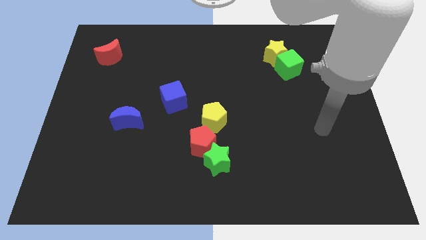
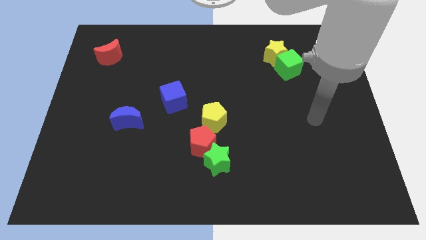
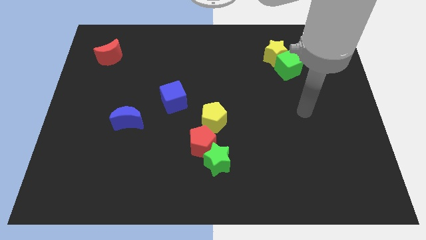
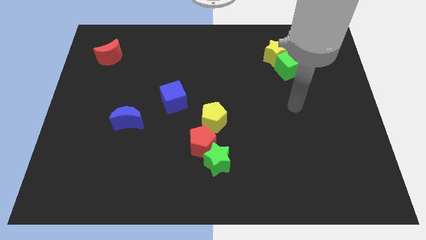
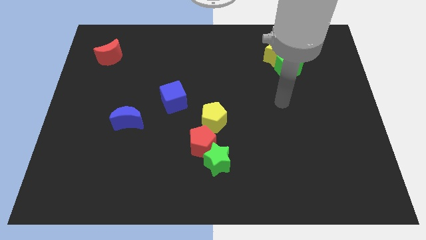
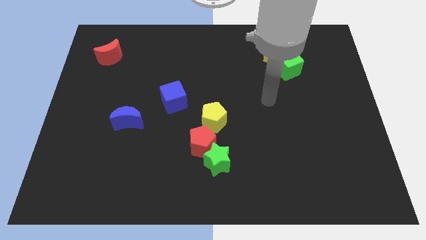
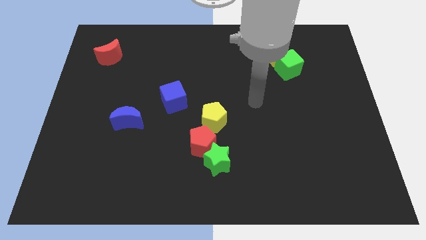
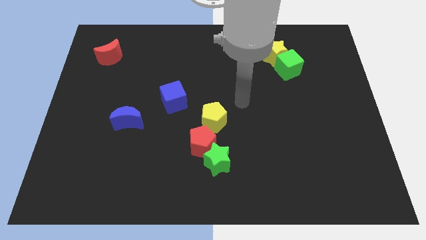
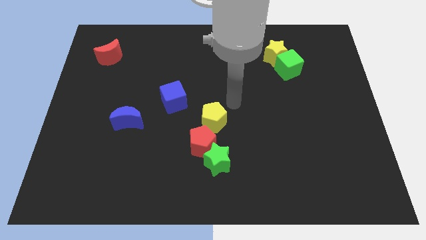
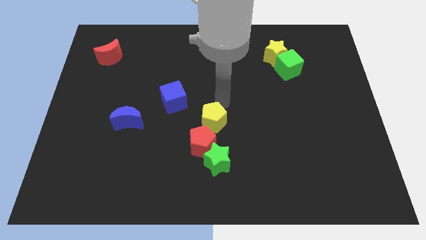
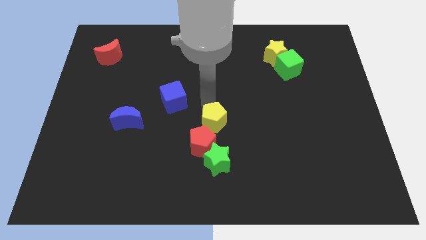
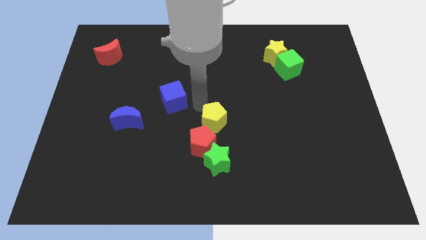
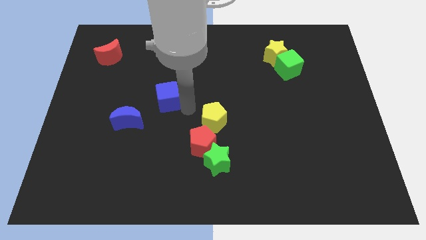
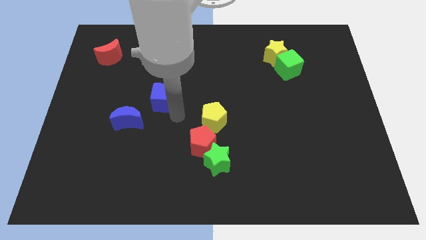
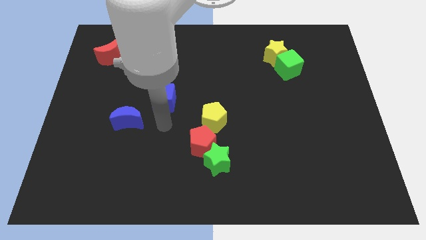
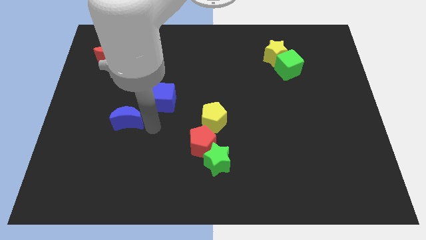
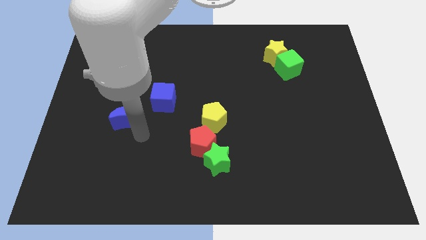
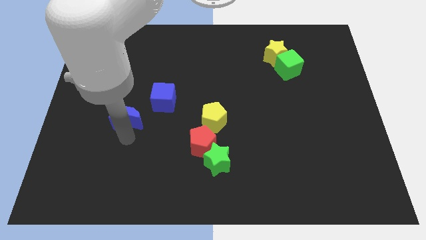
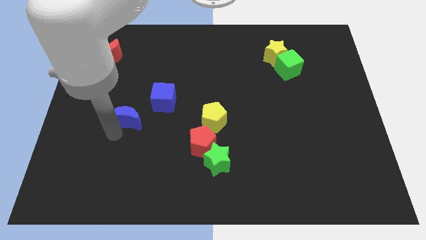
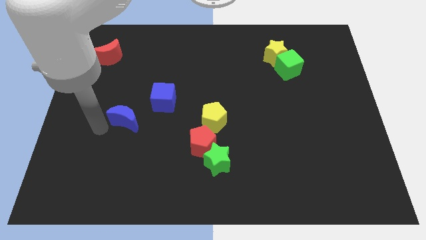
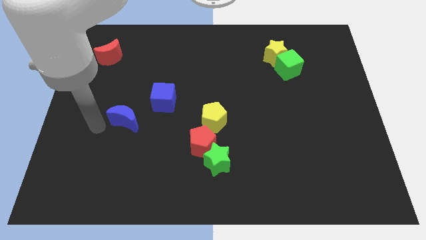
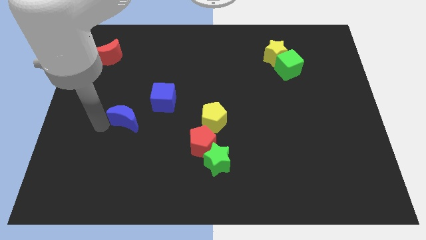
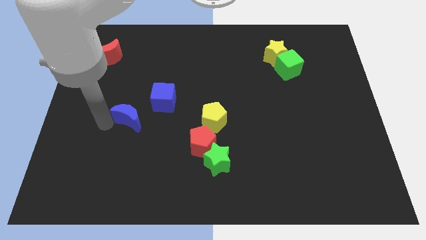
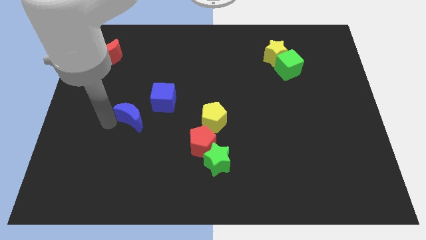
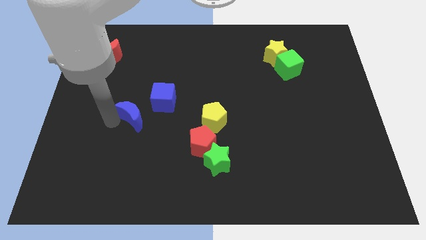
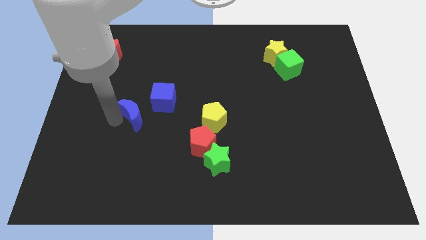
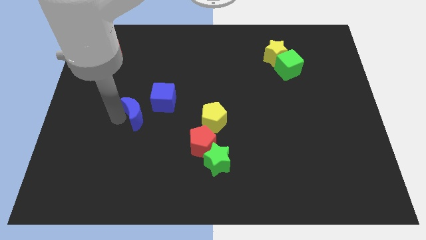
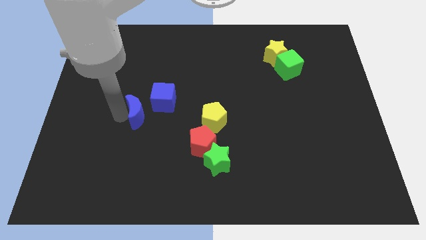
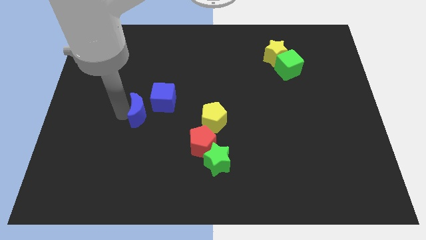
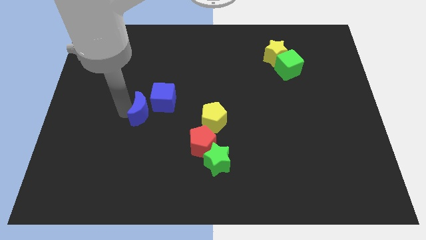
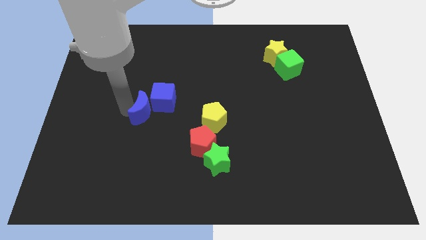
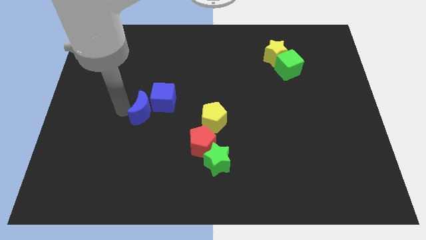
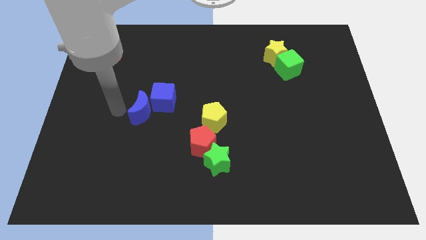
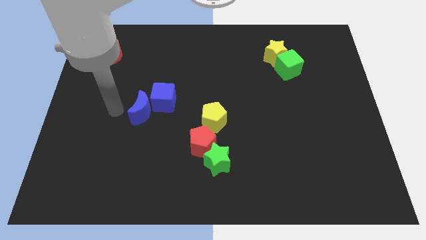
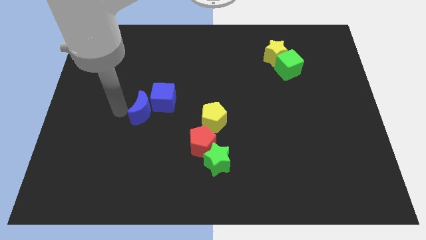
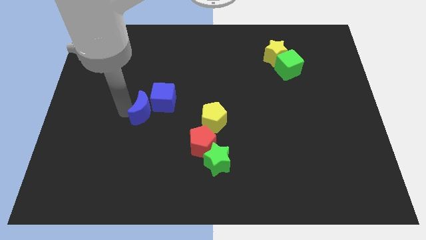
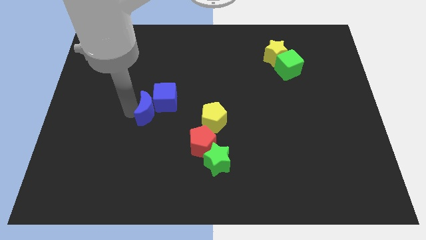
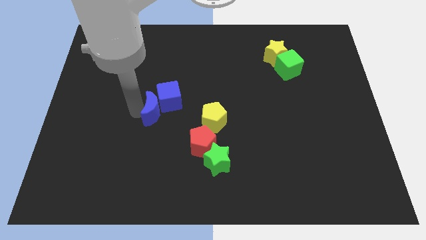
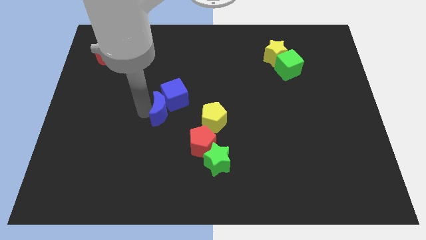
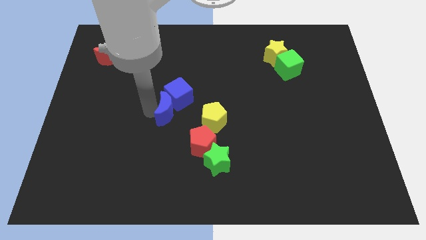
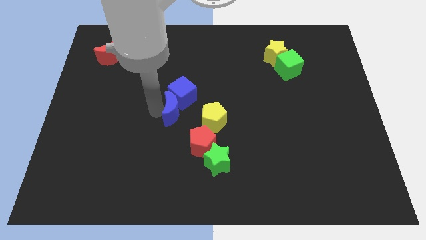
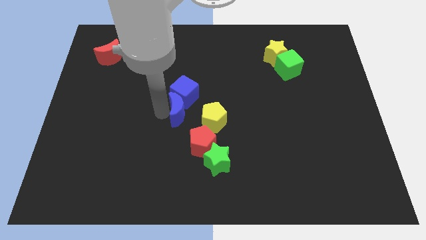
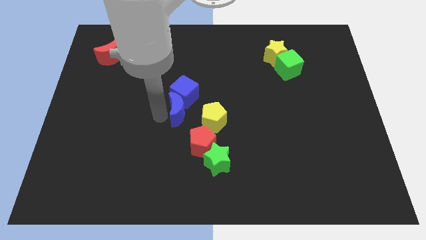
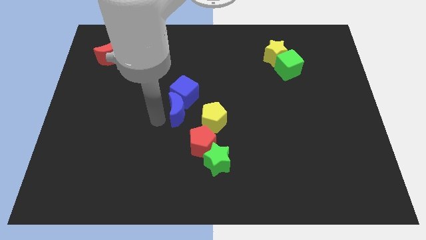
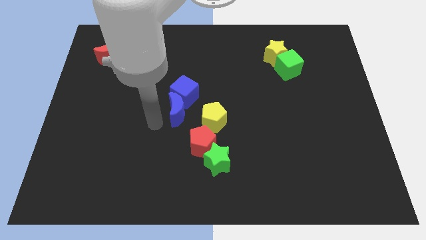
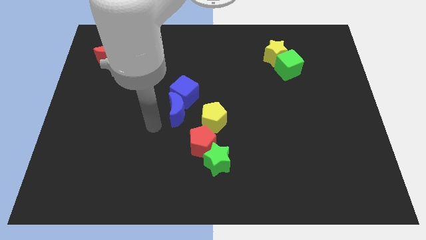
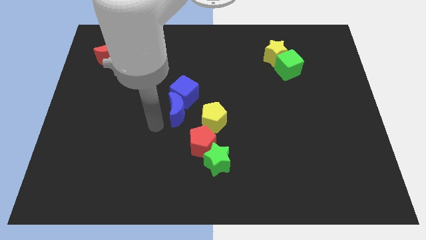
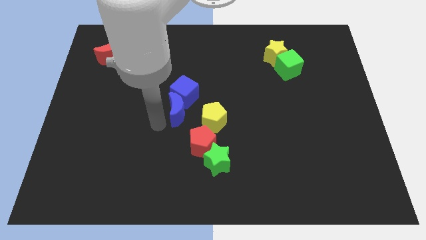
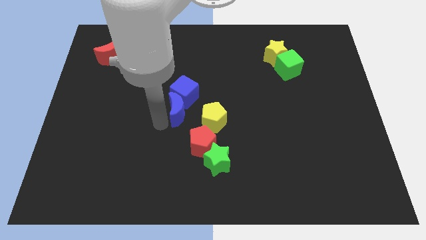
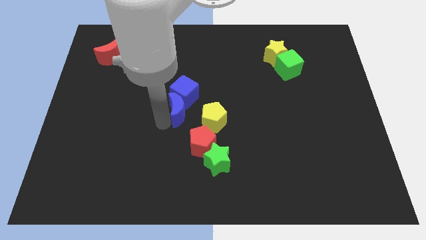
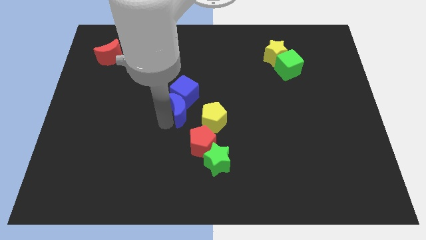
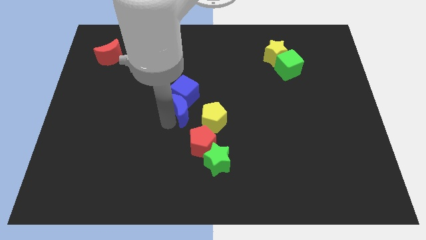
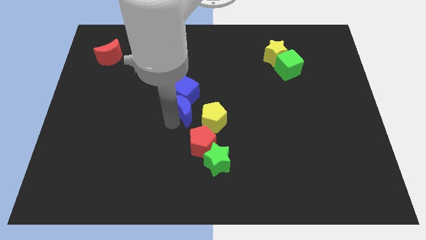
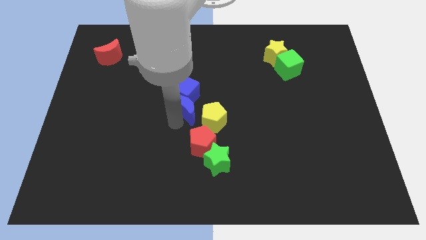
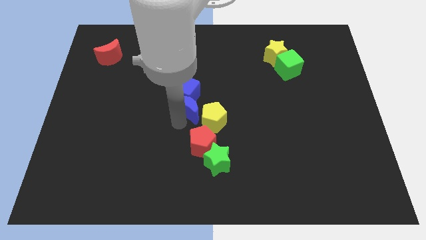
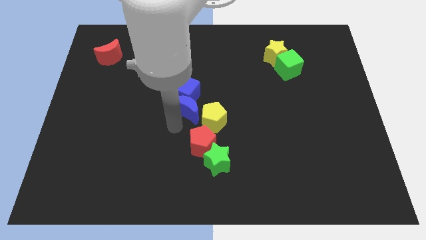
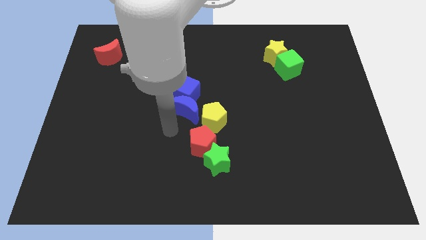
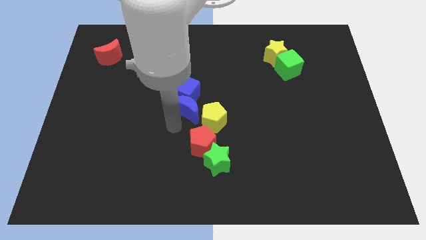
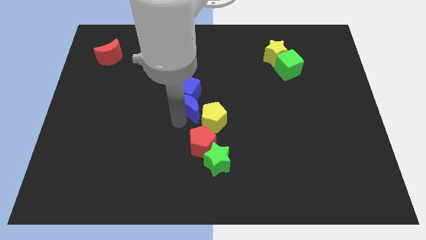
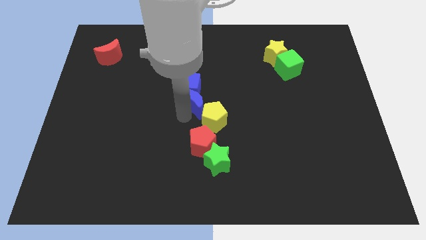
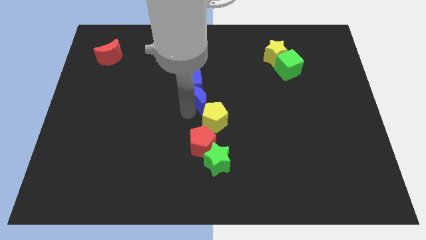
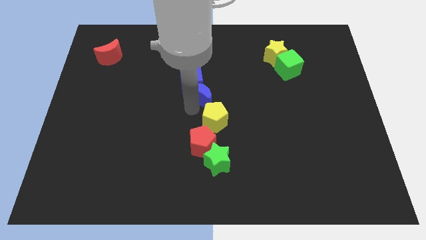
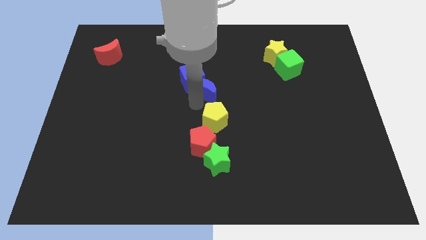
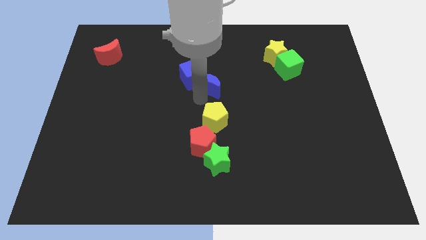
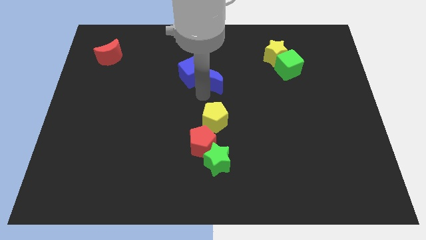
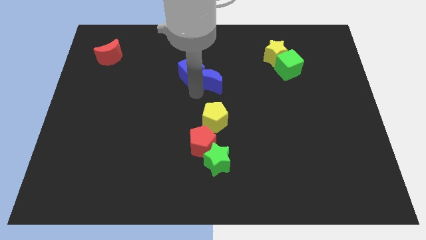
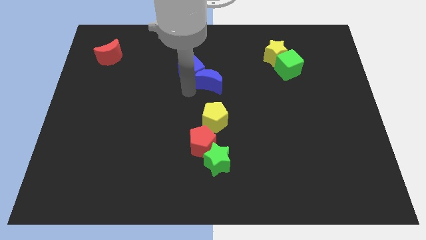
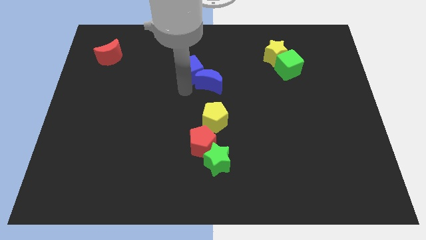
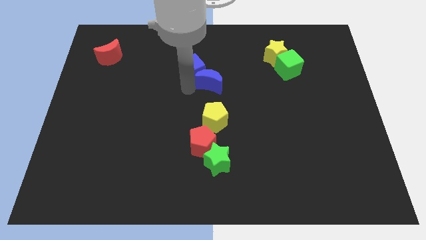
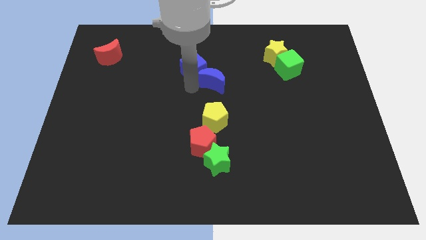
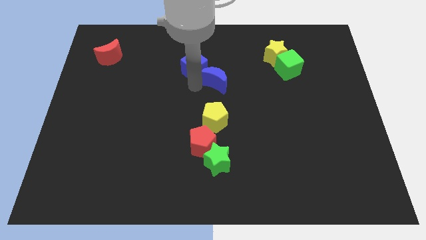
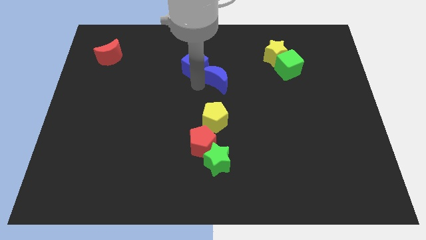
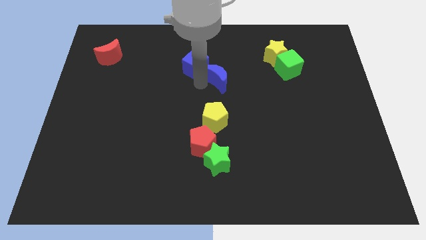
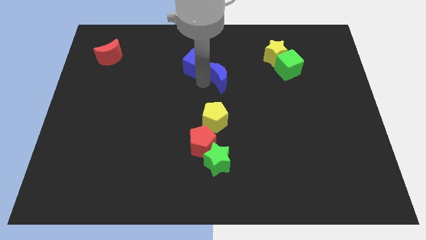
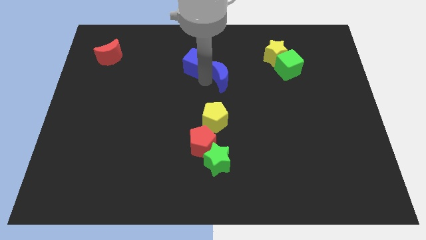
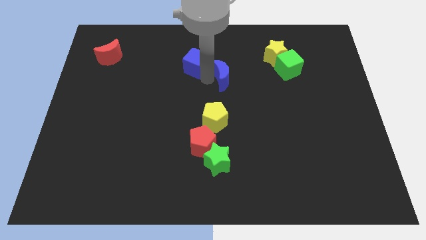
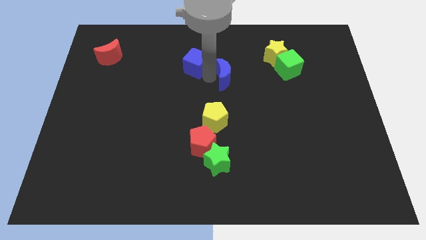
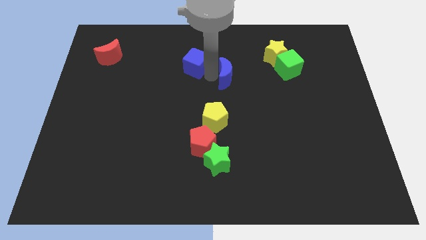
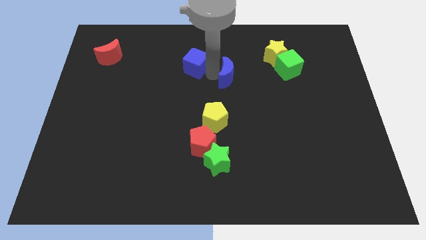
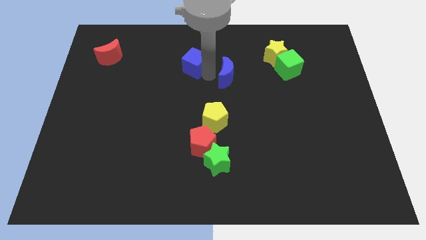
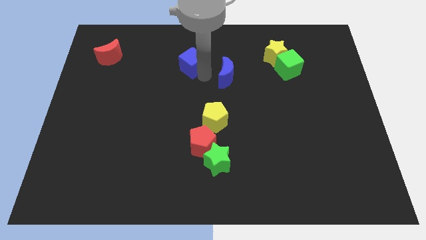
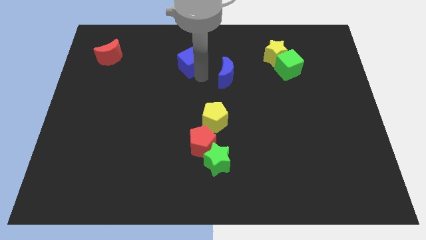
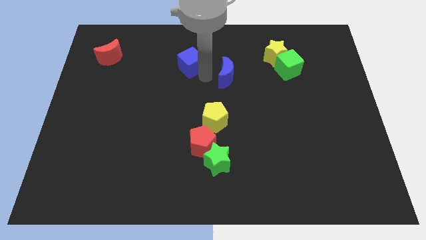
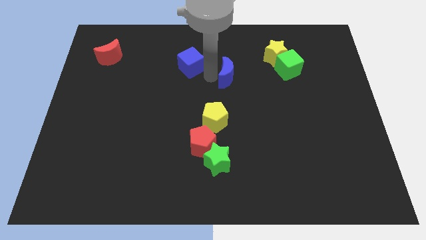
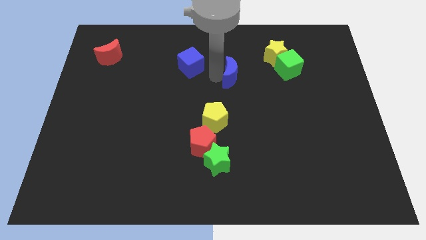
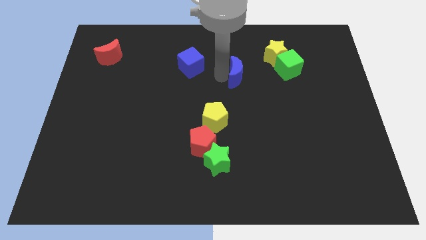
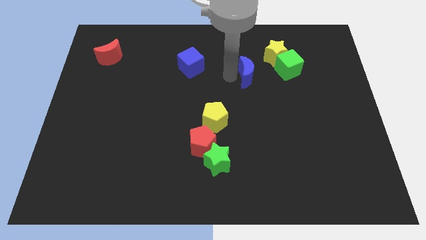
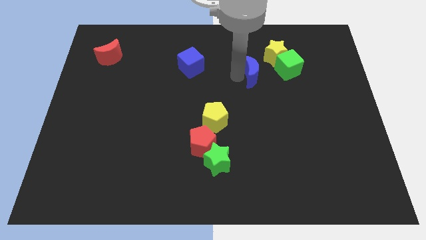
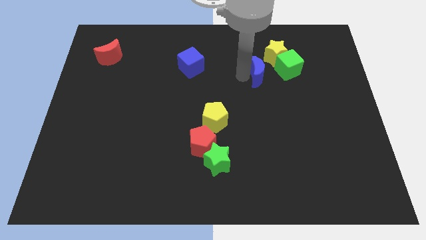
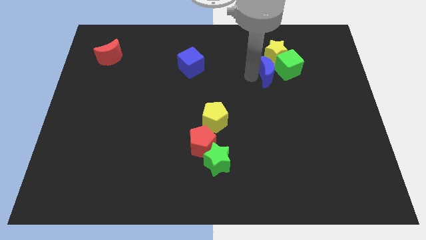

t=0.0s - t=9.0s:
put the blue moon towards the green cube
